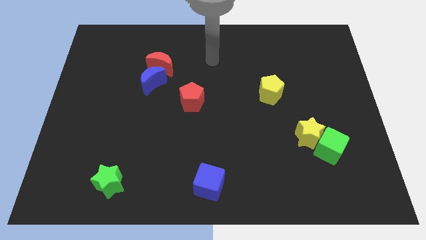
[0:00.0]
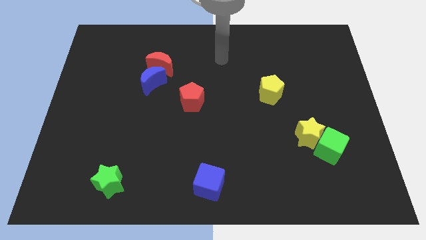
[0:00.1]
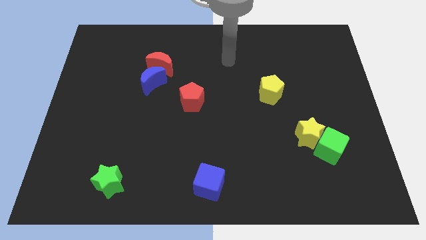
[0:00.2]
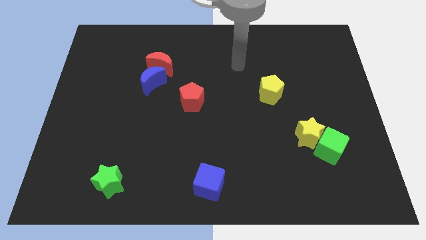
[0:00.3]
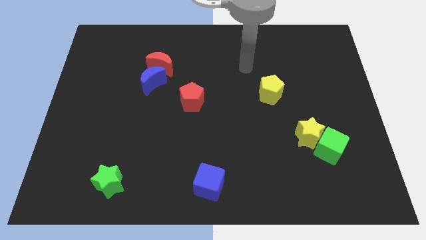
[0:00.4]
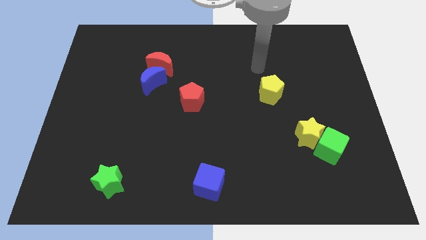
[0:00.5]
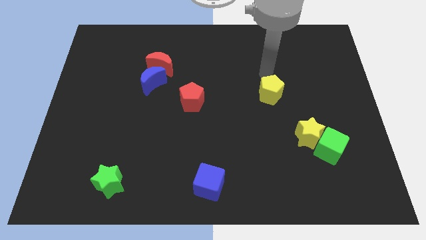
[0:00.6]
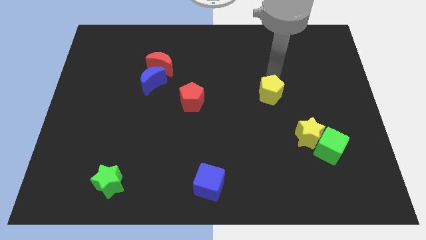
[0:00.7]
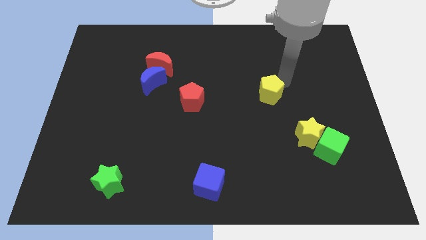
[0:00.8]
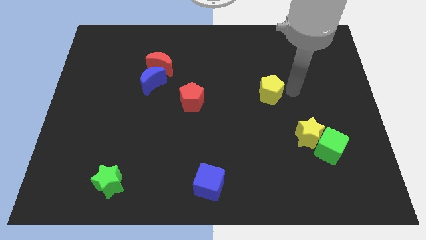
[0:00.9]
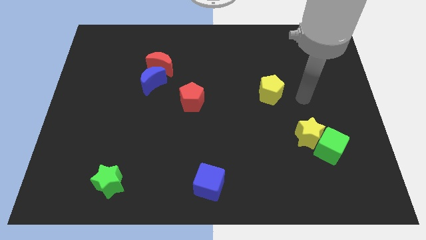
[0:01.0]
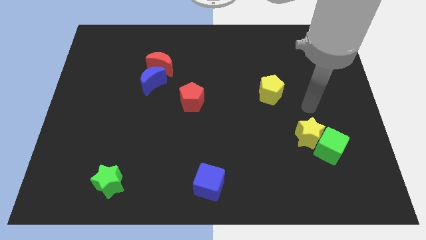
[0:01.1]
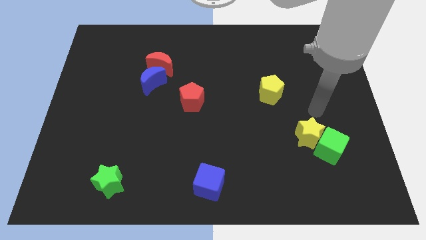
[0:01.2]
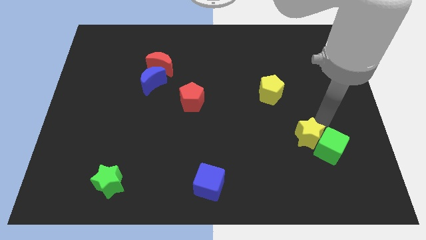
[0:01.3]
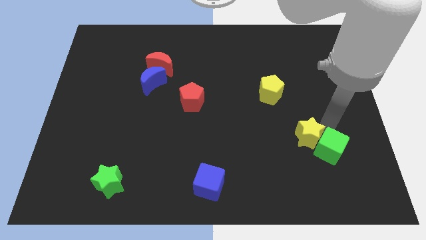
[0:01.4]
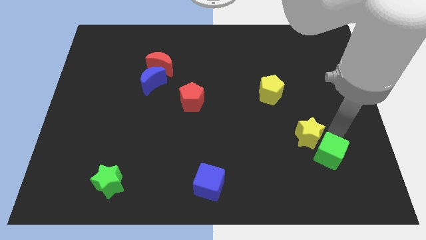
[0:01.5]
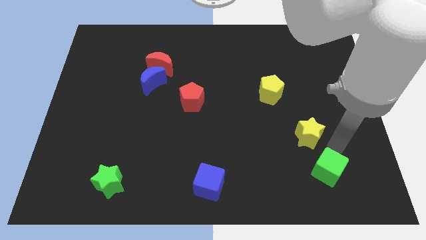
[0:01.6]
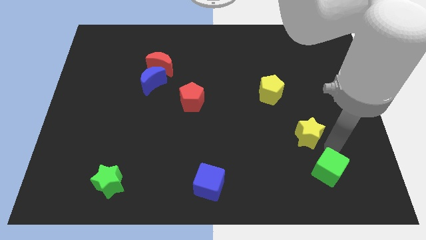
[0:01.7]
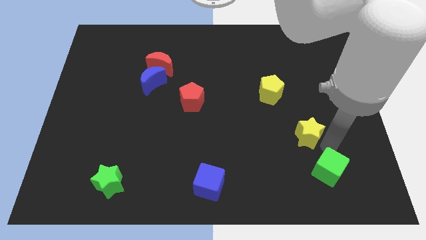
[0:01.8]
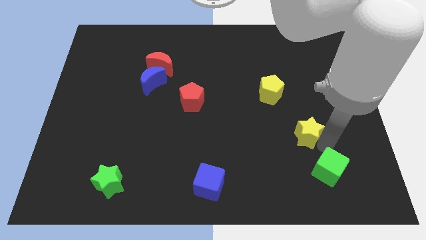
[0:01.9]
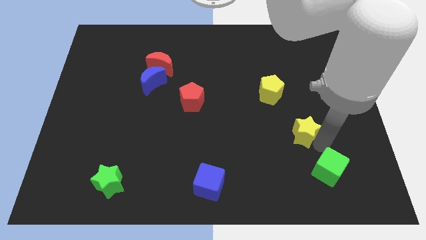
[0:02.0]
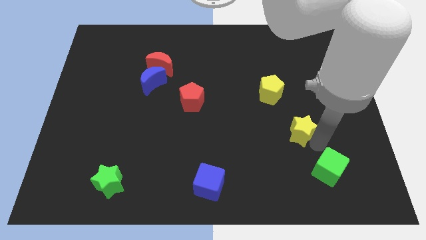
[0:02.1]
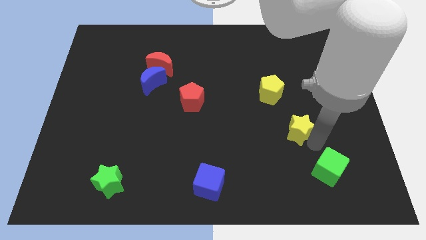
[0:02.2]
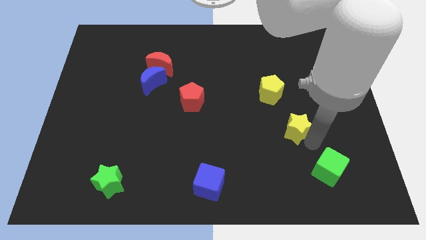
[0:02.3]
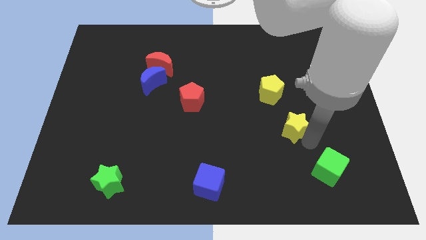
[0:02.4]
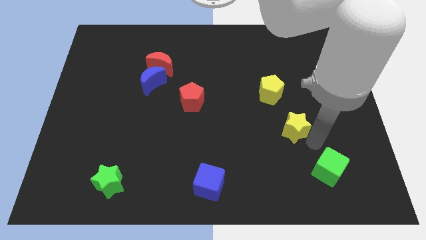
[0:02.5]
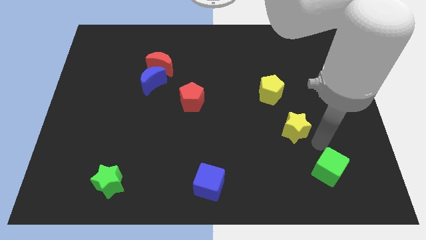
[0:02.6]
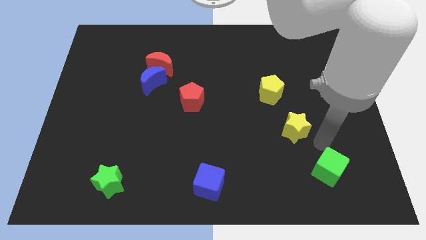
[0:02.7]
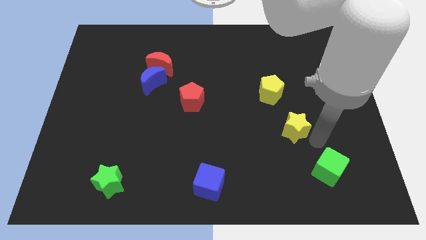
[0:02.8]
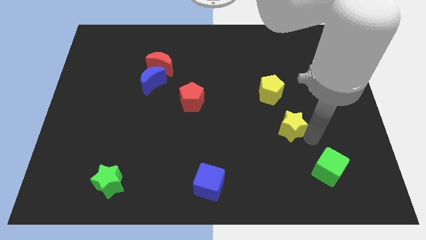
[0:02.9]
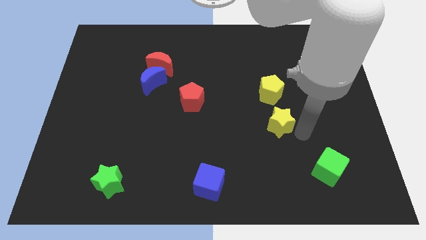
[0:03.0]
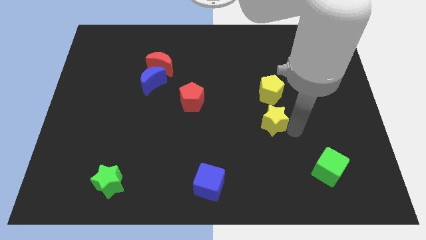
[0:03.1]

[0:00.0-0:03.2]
move the yellow star upwards and to the left somewhat

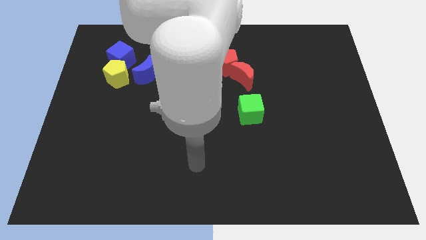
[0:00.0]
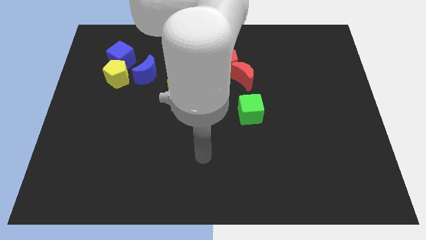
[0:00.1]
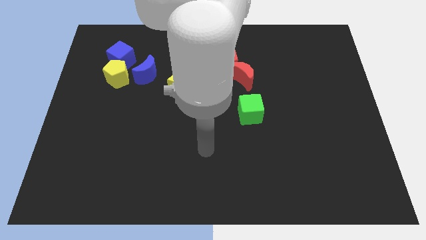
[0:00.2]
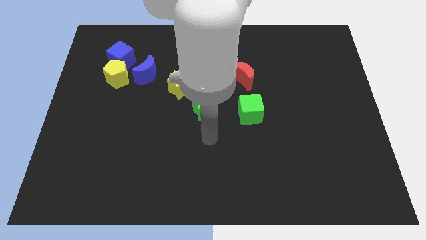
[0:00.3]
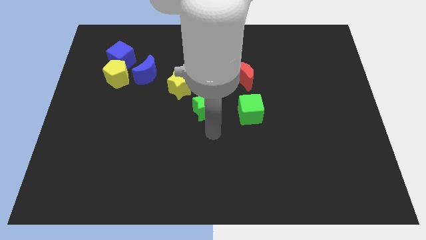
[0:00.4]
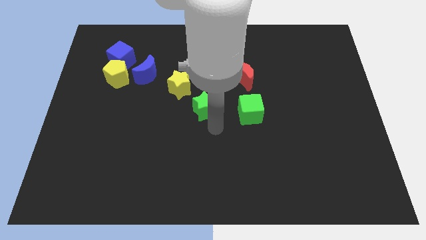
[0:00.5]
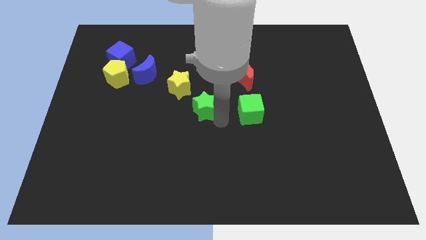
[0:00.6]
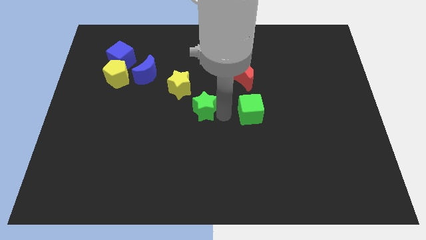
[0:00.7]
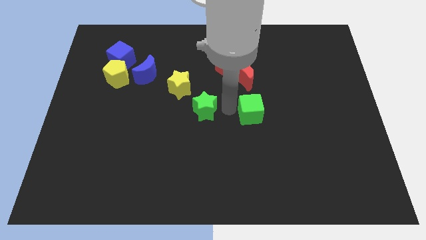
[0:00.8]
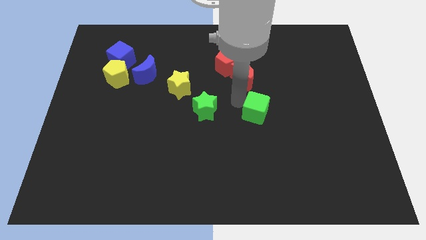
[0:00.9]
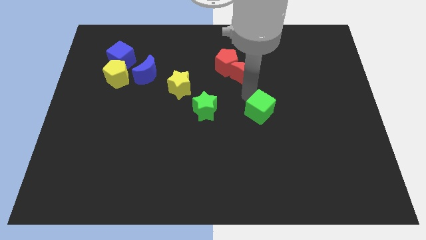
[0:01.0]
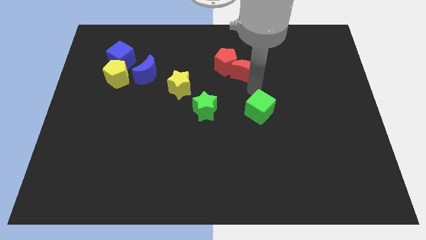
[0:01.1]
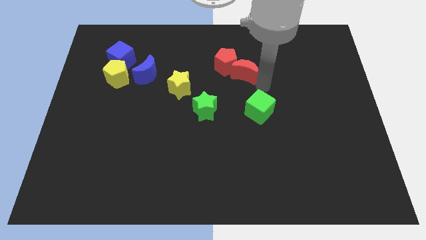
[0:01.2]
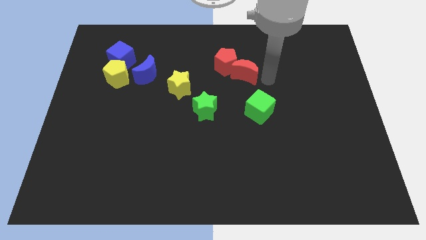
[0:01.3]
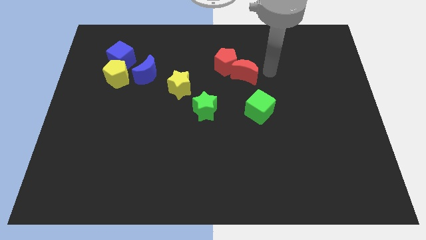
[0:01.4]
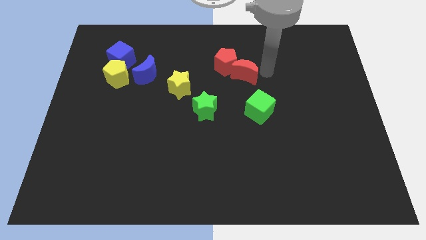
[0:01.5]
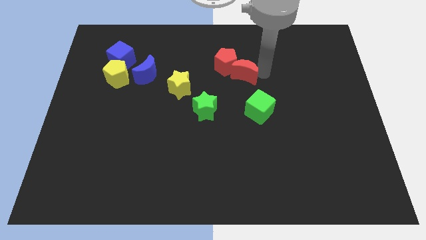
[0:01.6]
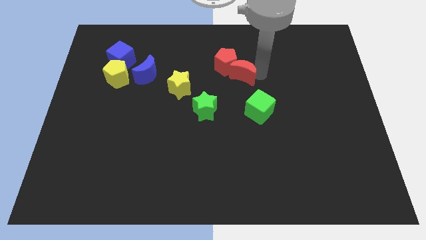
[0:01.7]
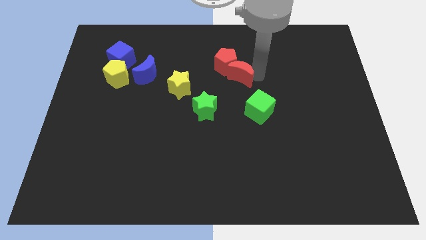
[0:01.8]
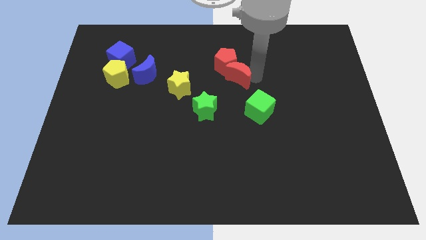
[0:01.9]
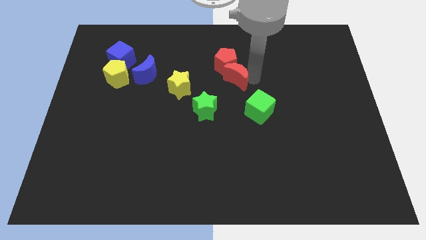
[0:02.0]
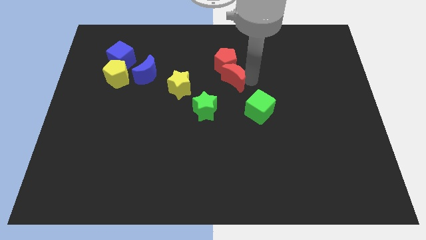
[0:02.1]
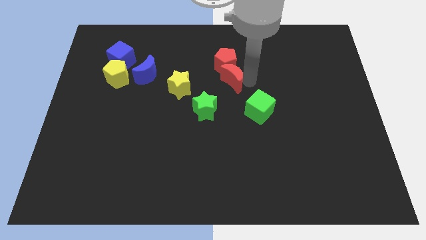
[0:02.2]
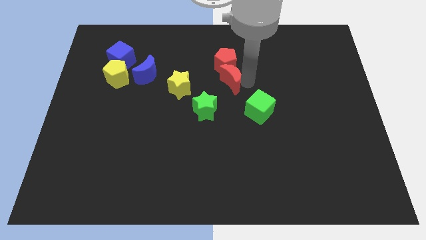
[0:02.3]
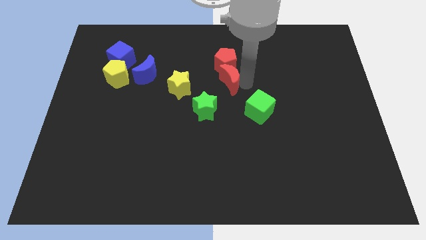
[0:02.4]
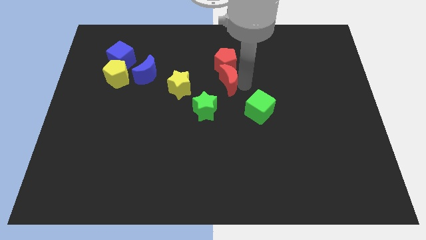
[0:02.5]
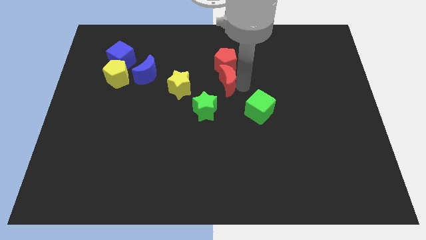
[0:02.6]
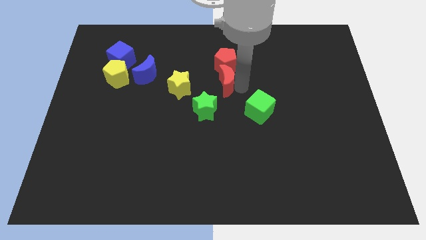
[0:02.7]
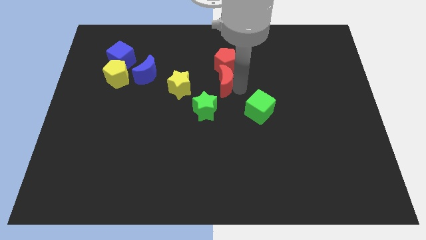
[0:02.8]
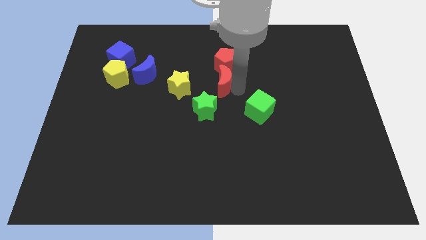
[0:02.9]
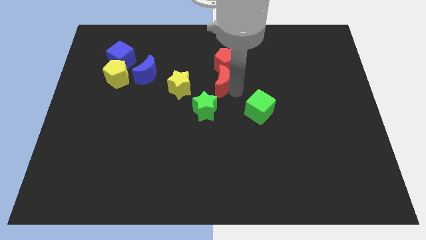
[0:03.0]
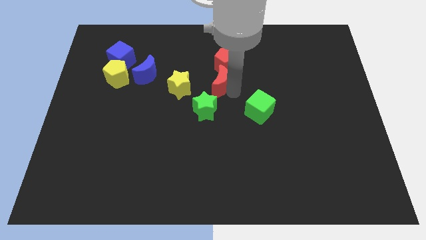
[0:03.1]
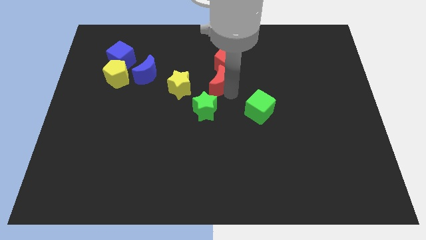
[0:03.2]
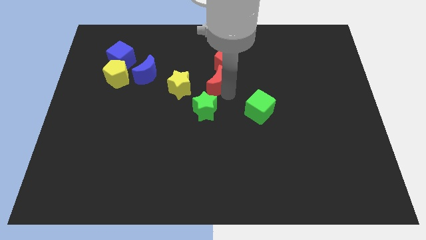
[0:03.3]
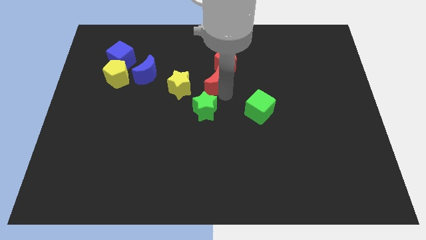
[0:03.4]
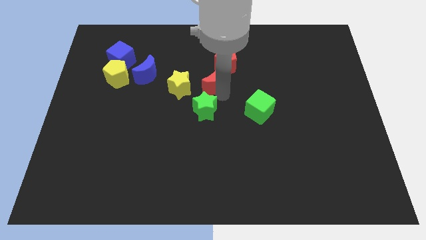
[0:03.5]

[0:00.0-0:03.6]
slightly slide the red moon to the left

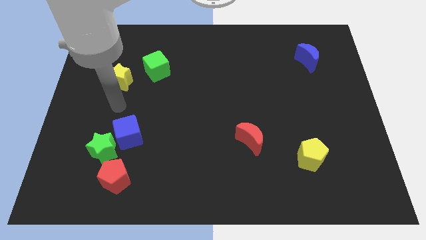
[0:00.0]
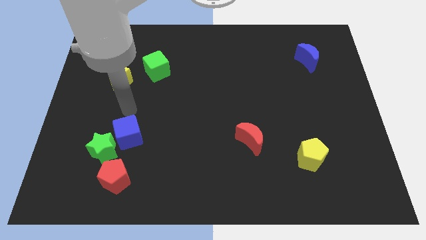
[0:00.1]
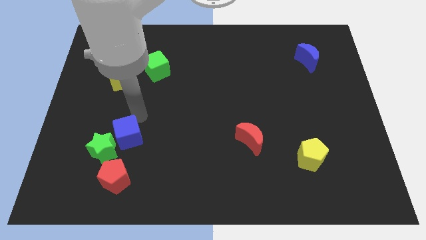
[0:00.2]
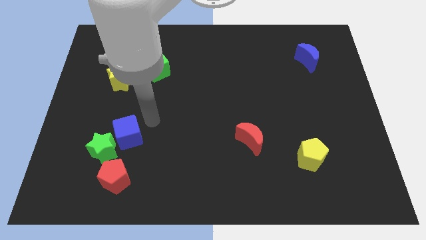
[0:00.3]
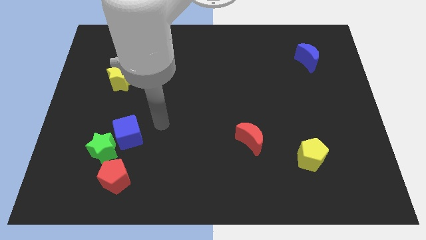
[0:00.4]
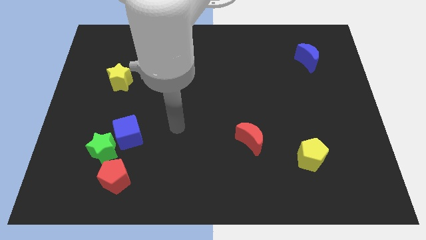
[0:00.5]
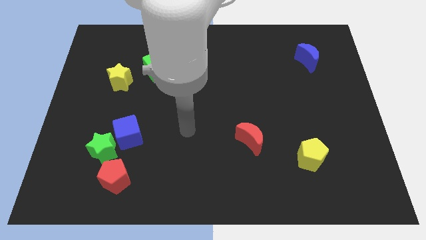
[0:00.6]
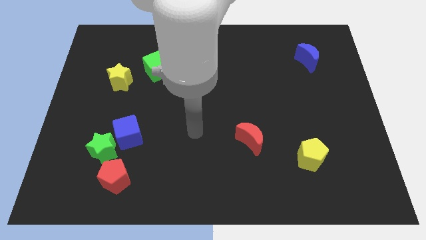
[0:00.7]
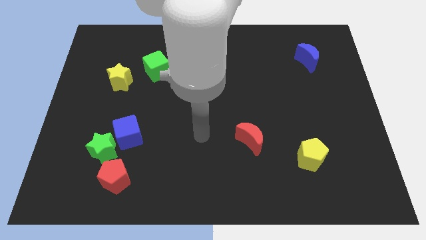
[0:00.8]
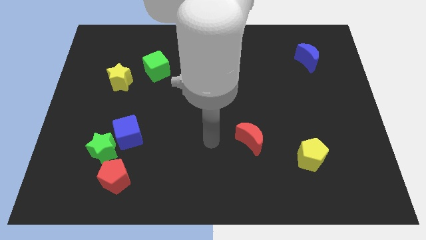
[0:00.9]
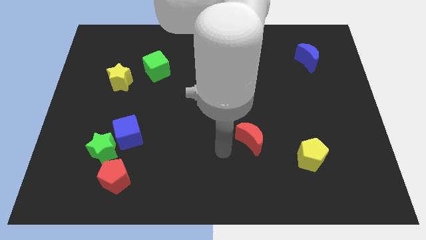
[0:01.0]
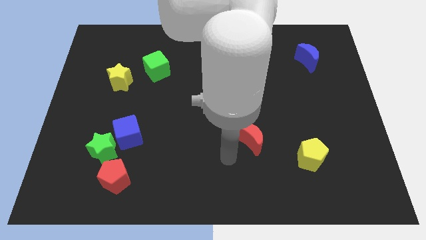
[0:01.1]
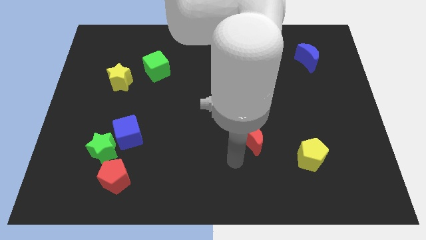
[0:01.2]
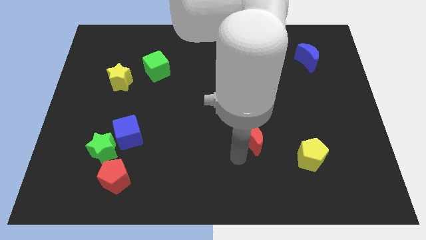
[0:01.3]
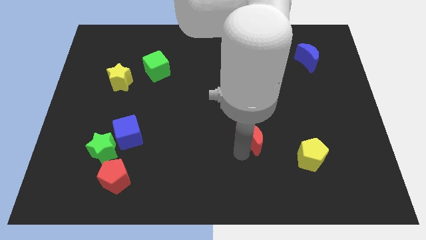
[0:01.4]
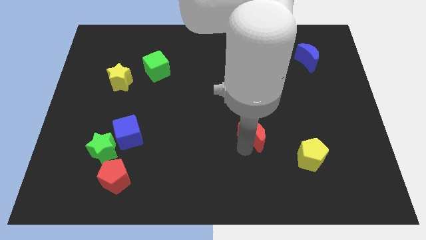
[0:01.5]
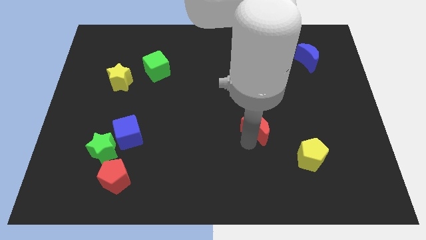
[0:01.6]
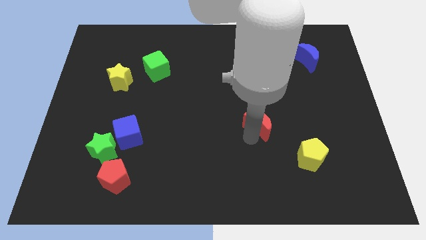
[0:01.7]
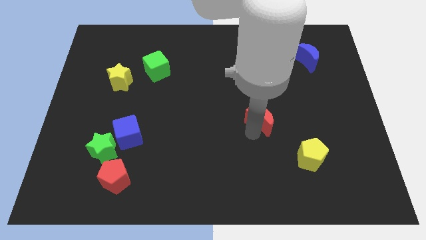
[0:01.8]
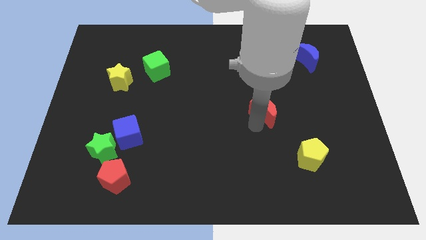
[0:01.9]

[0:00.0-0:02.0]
move the red moon somewhat diagonally up and to the right
